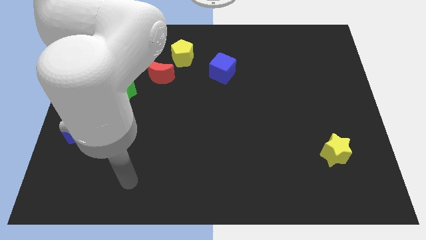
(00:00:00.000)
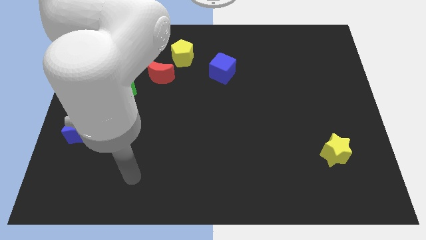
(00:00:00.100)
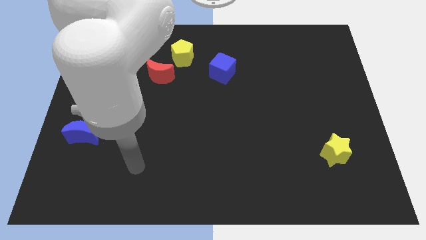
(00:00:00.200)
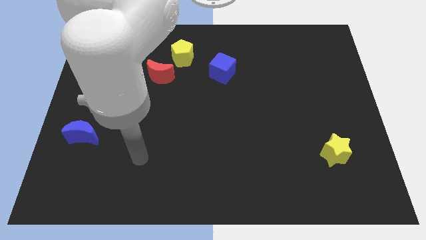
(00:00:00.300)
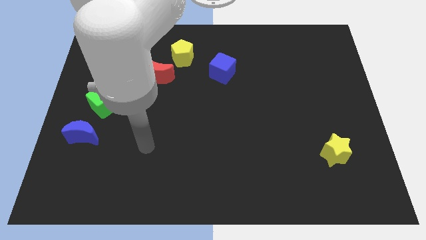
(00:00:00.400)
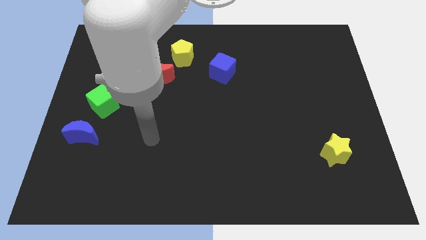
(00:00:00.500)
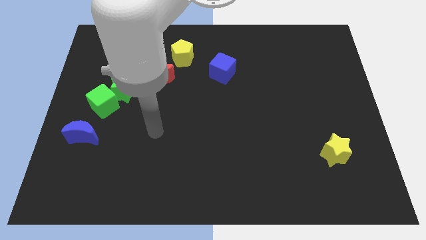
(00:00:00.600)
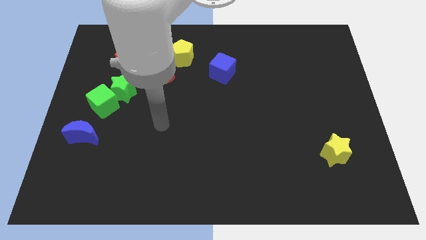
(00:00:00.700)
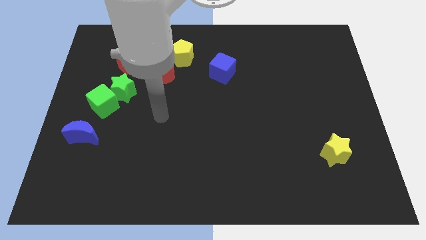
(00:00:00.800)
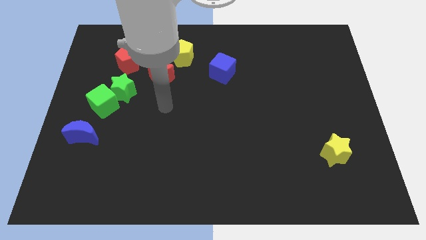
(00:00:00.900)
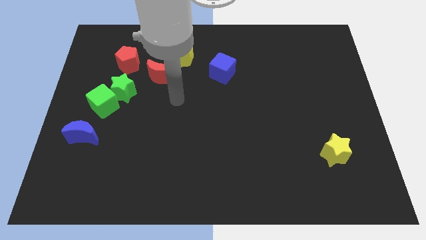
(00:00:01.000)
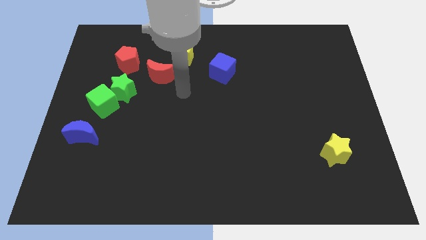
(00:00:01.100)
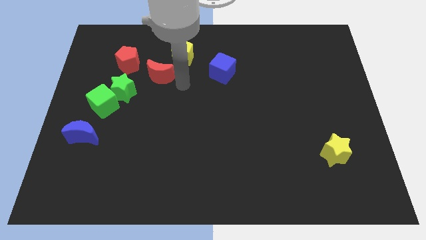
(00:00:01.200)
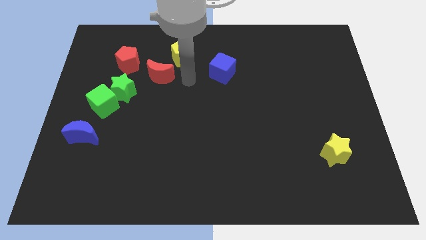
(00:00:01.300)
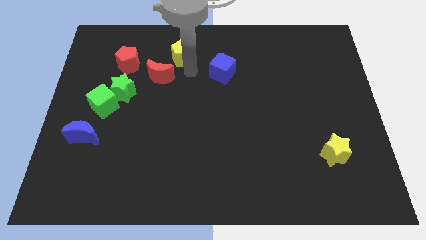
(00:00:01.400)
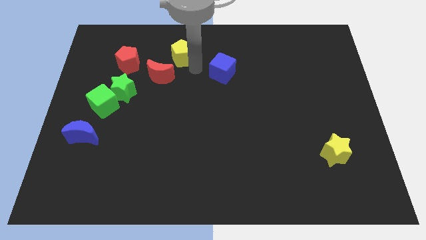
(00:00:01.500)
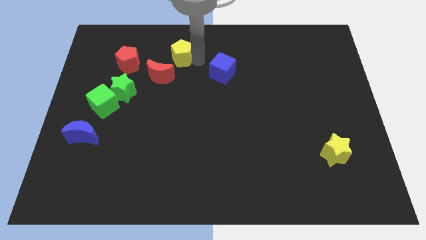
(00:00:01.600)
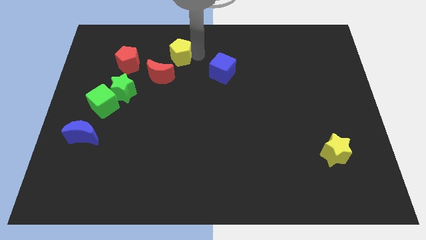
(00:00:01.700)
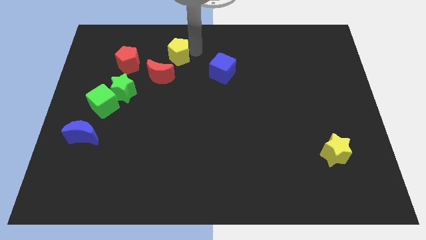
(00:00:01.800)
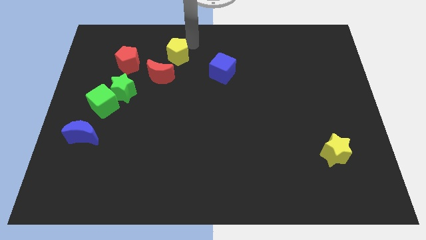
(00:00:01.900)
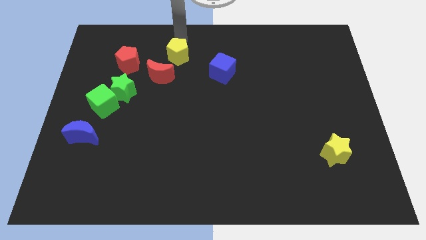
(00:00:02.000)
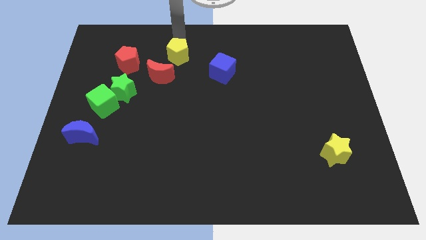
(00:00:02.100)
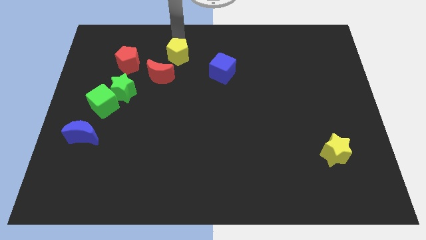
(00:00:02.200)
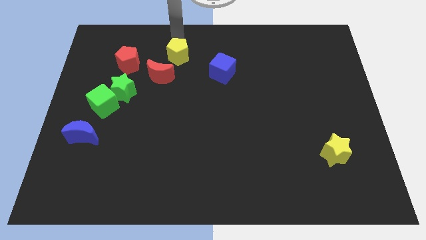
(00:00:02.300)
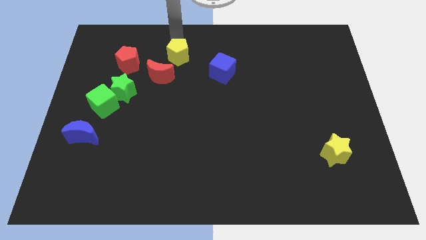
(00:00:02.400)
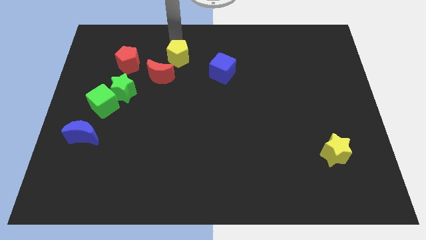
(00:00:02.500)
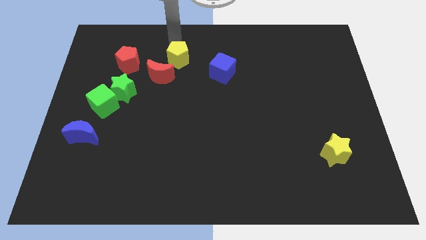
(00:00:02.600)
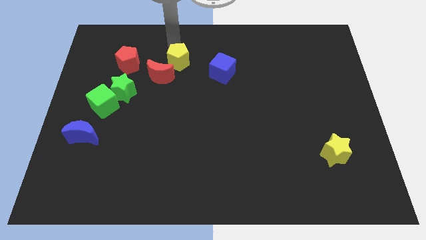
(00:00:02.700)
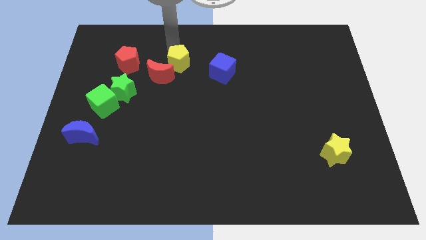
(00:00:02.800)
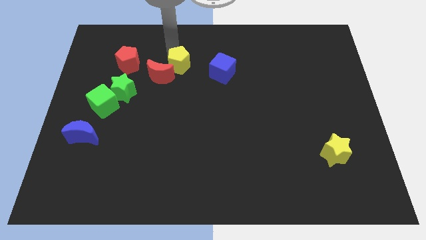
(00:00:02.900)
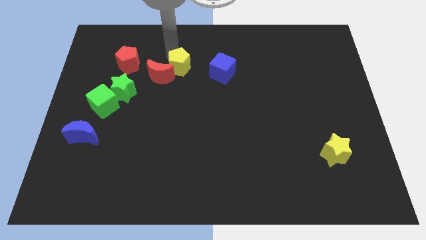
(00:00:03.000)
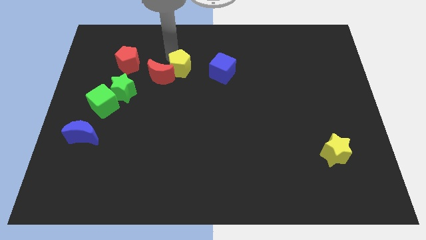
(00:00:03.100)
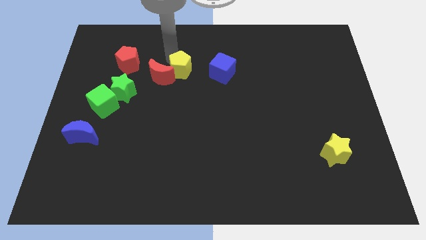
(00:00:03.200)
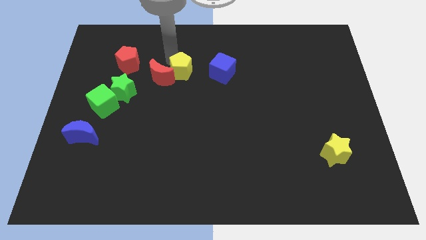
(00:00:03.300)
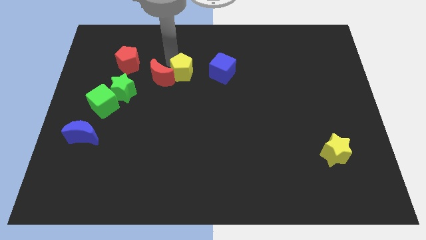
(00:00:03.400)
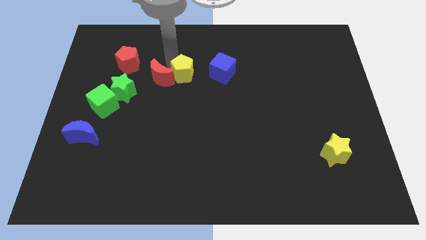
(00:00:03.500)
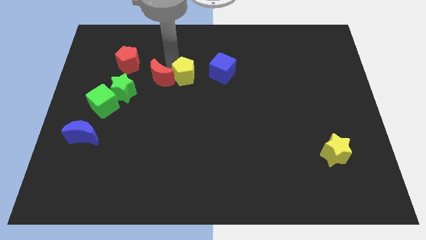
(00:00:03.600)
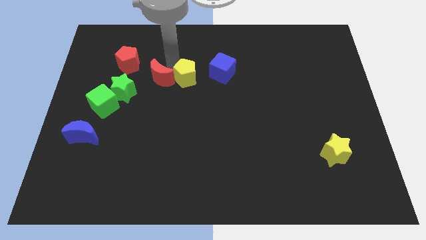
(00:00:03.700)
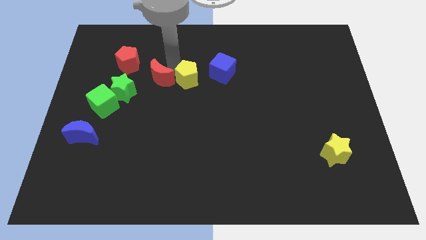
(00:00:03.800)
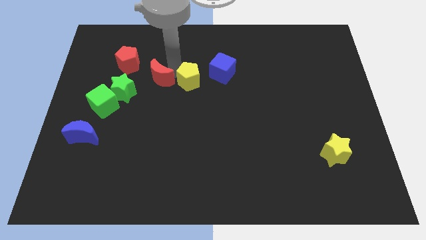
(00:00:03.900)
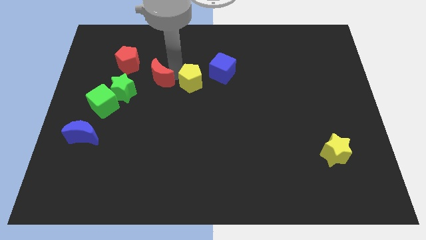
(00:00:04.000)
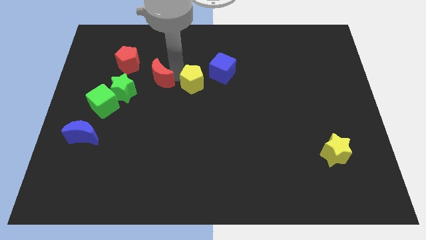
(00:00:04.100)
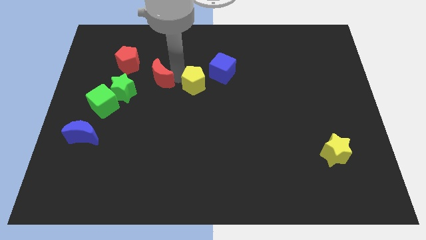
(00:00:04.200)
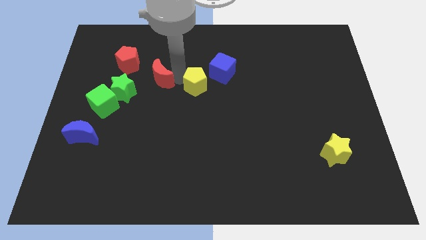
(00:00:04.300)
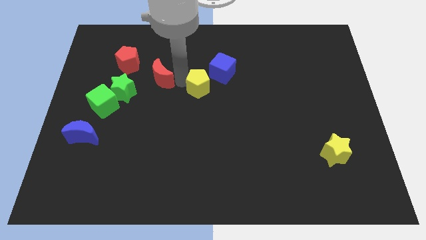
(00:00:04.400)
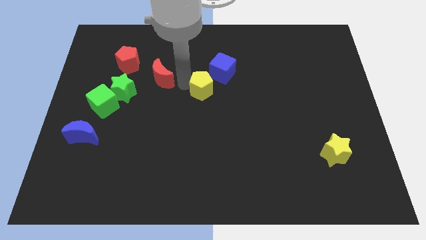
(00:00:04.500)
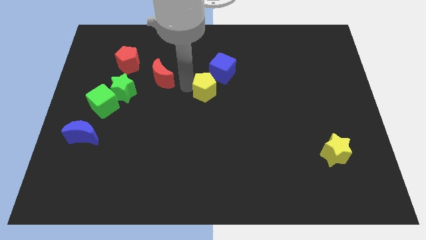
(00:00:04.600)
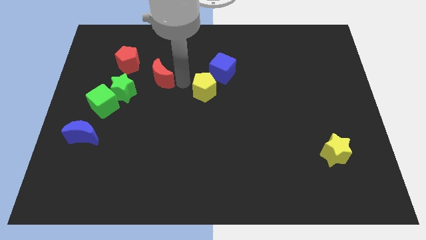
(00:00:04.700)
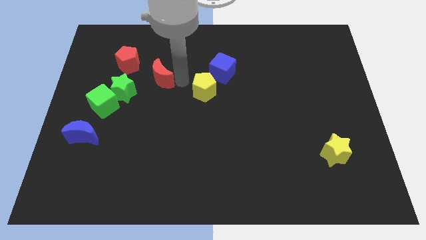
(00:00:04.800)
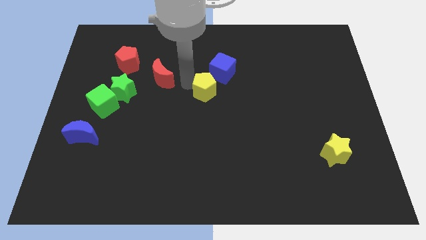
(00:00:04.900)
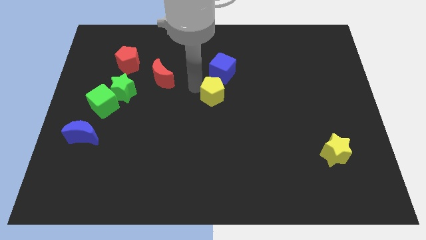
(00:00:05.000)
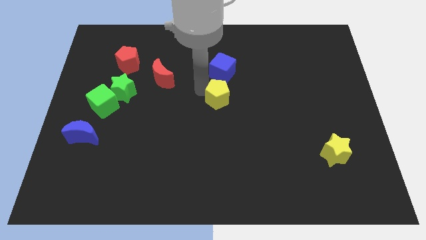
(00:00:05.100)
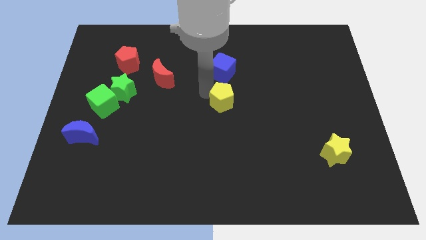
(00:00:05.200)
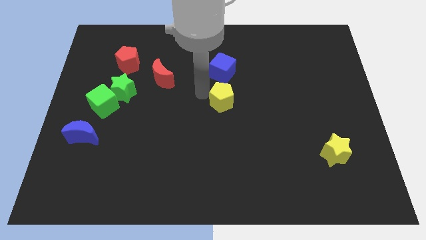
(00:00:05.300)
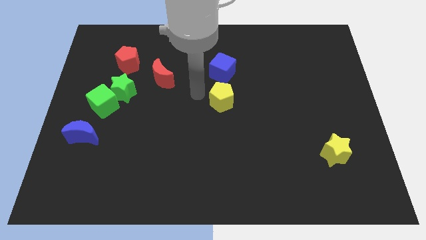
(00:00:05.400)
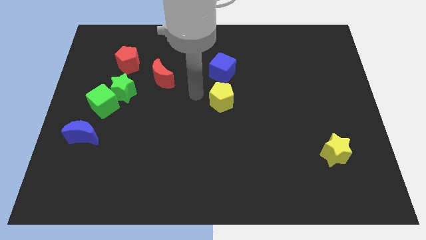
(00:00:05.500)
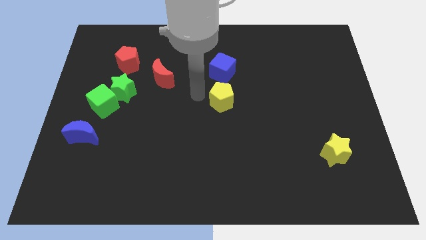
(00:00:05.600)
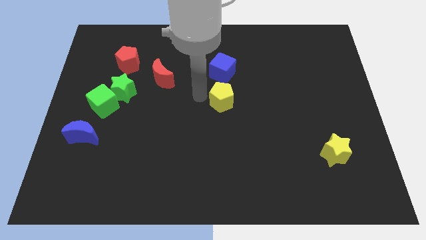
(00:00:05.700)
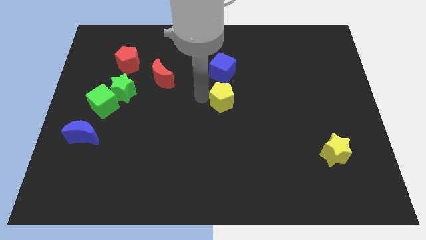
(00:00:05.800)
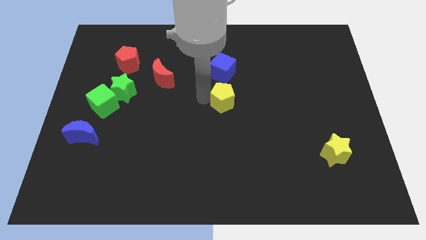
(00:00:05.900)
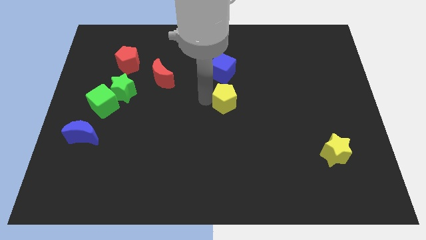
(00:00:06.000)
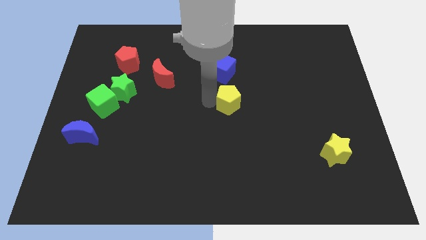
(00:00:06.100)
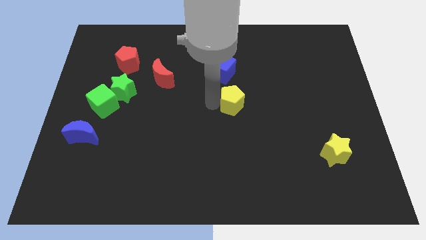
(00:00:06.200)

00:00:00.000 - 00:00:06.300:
slide the yellow pentagon down and to the right

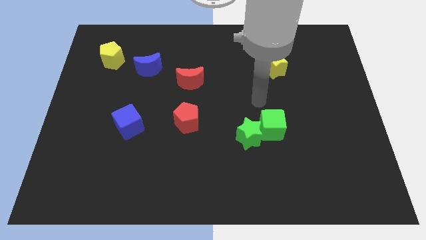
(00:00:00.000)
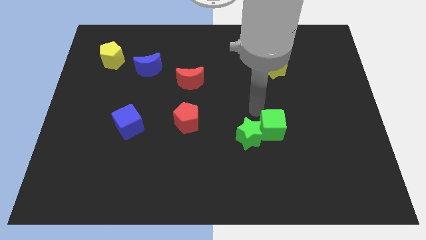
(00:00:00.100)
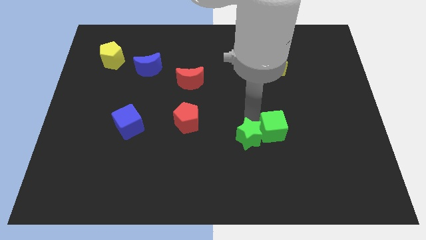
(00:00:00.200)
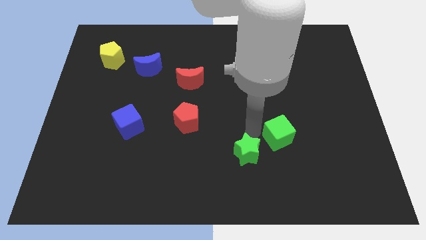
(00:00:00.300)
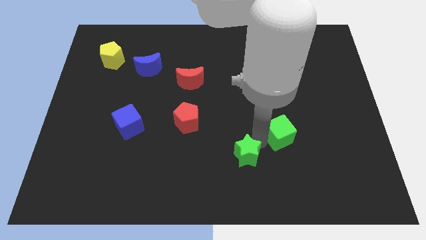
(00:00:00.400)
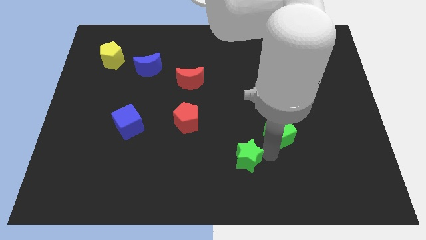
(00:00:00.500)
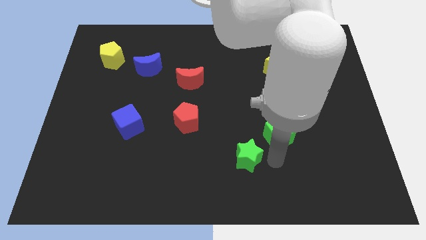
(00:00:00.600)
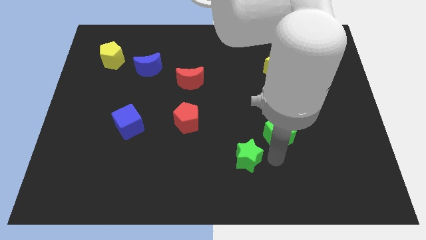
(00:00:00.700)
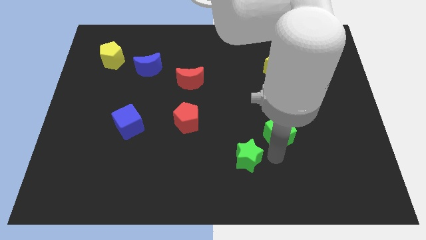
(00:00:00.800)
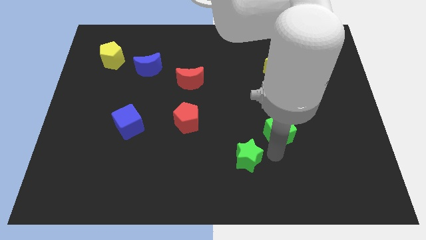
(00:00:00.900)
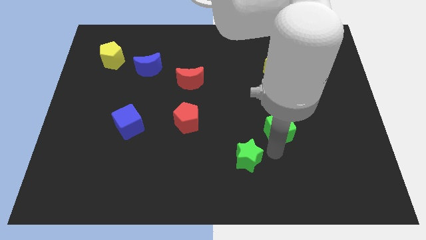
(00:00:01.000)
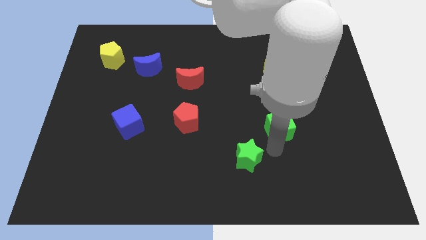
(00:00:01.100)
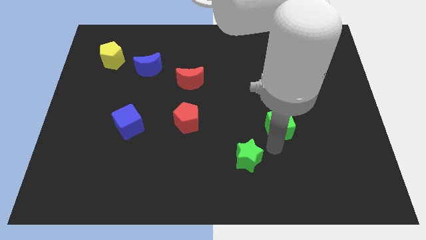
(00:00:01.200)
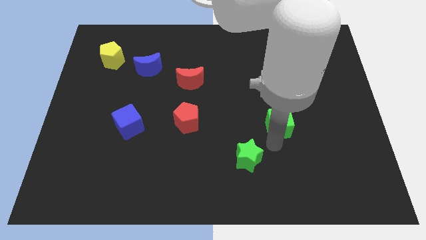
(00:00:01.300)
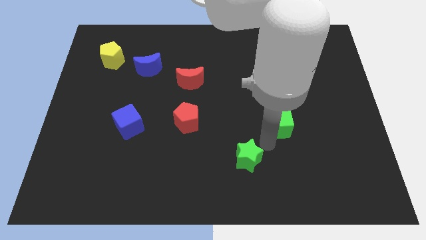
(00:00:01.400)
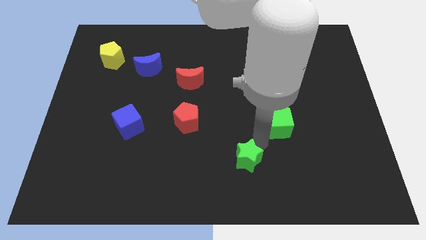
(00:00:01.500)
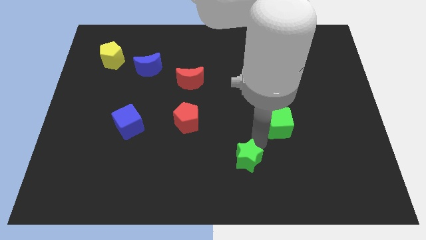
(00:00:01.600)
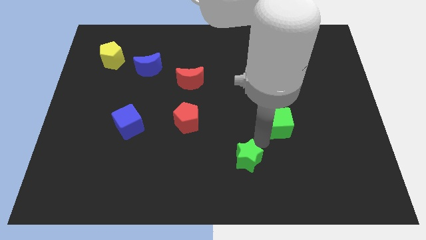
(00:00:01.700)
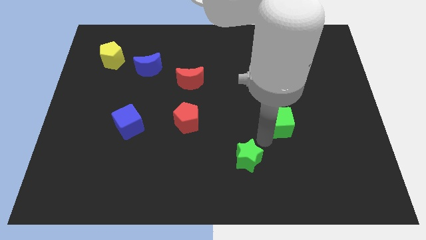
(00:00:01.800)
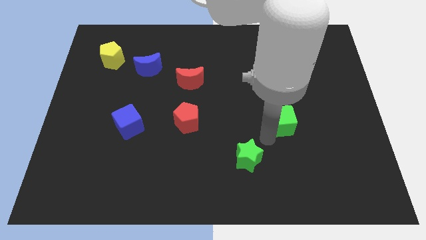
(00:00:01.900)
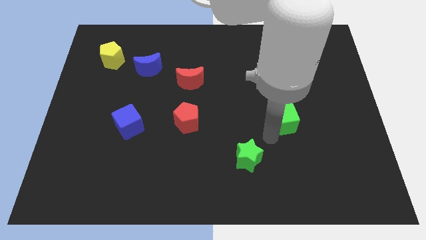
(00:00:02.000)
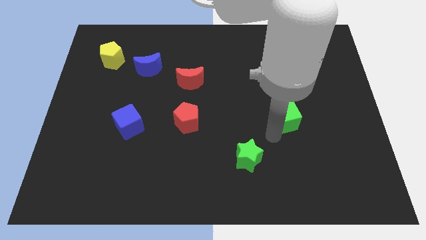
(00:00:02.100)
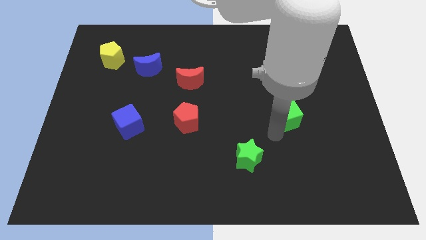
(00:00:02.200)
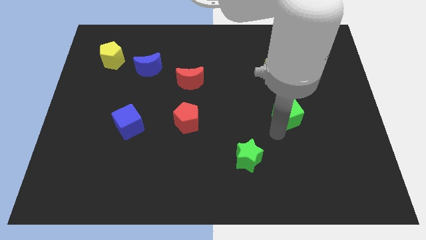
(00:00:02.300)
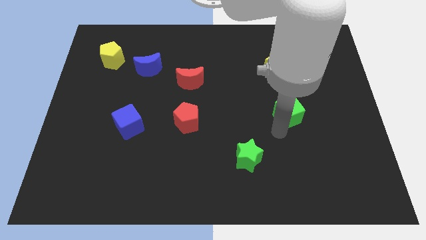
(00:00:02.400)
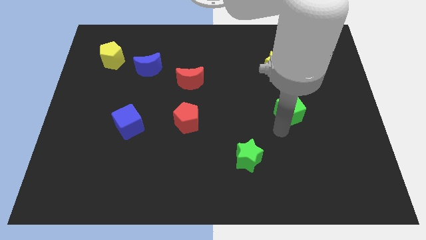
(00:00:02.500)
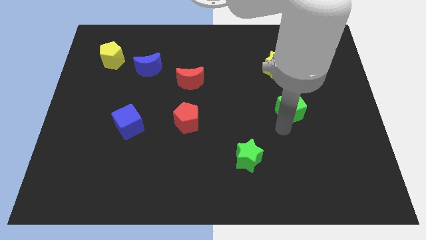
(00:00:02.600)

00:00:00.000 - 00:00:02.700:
move the green cube upwards and to the right diagonally a little
